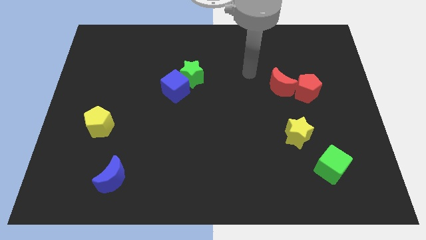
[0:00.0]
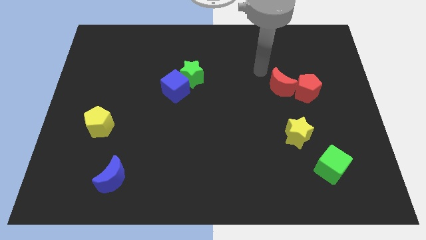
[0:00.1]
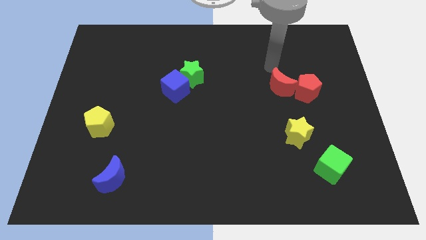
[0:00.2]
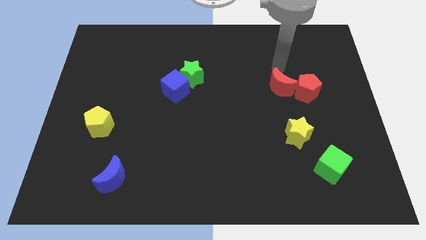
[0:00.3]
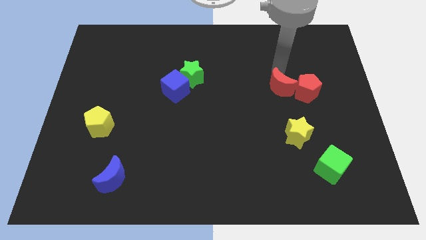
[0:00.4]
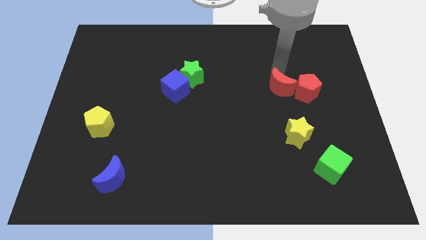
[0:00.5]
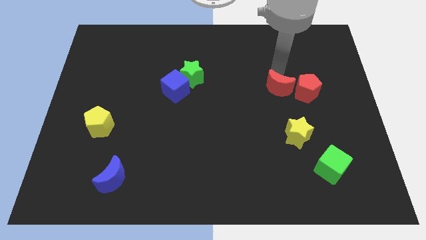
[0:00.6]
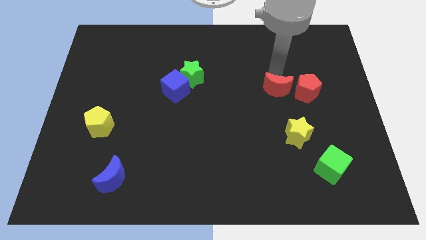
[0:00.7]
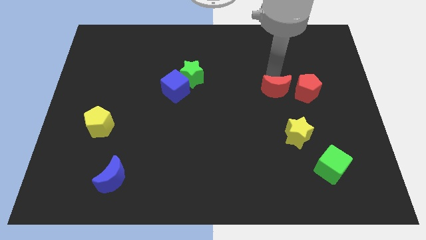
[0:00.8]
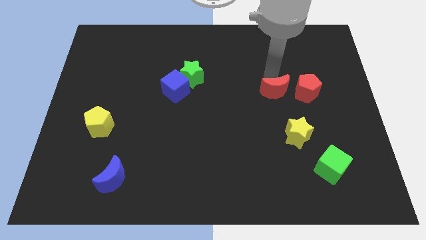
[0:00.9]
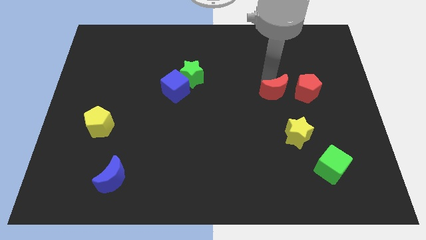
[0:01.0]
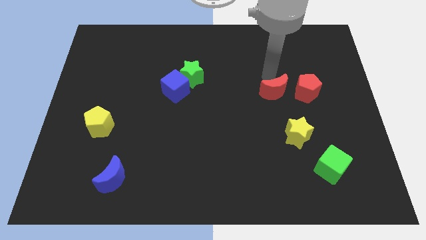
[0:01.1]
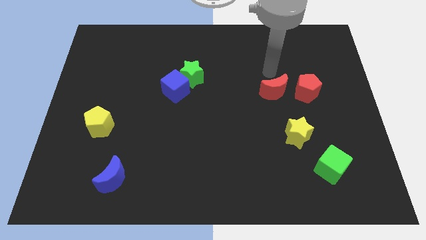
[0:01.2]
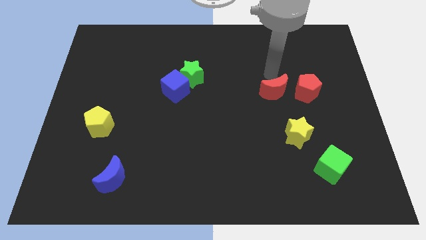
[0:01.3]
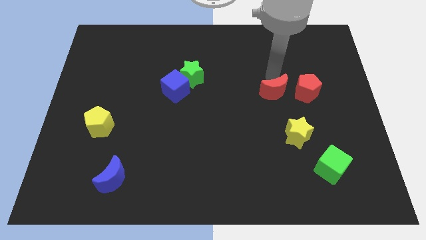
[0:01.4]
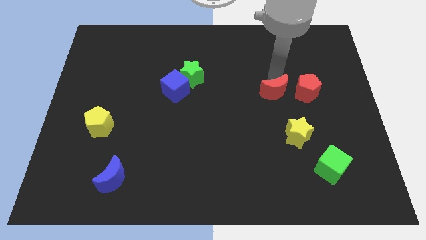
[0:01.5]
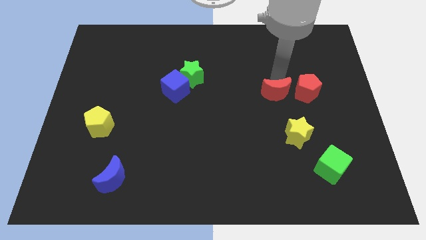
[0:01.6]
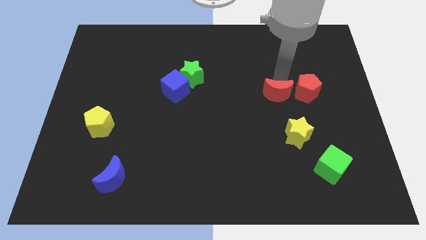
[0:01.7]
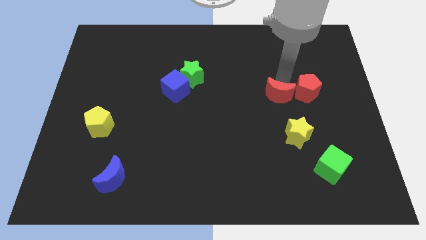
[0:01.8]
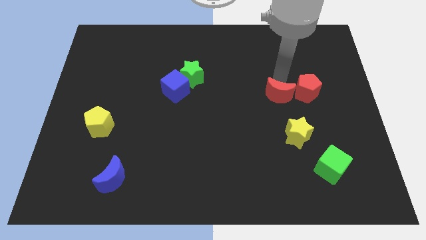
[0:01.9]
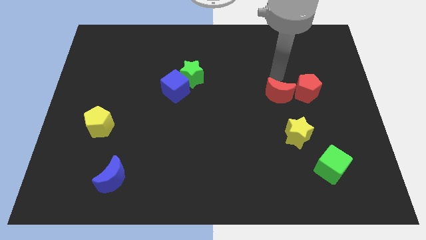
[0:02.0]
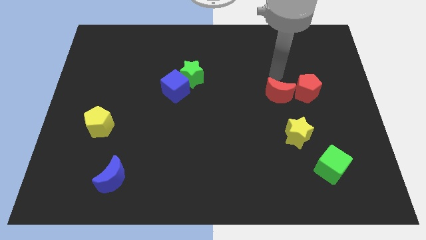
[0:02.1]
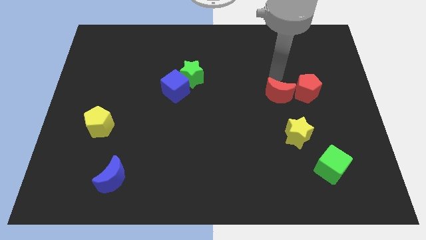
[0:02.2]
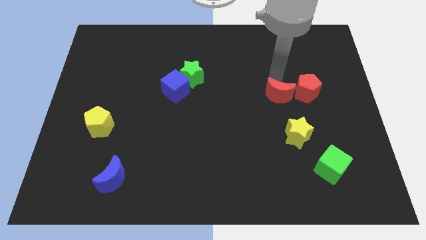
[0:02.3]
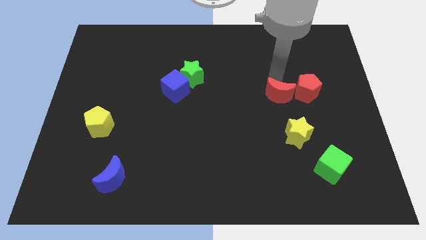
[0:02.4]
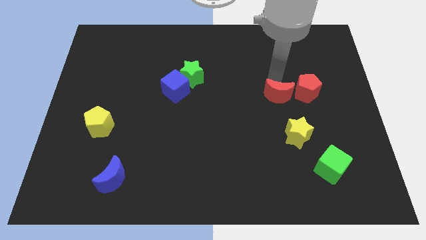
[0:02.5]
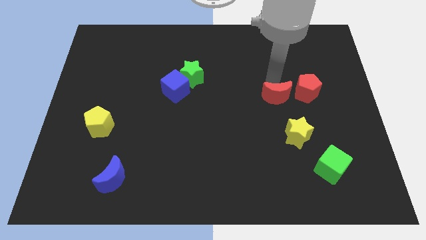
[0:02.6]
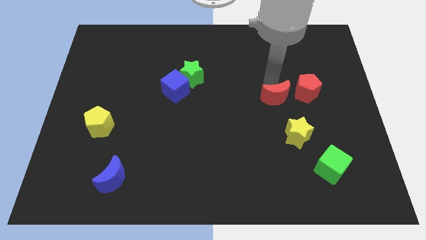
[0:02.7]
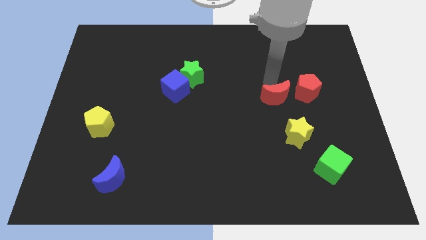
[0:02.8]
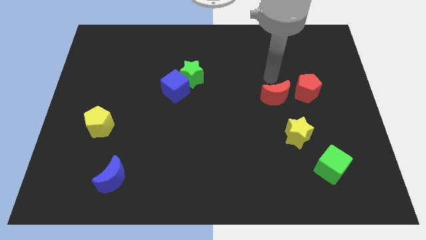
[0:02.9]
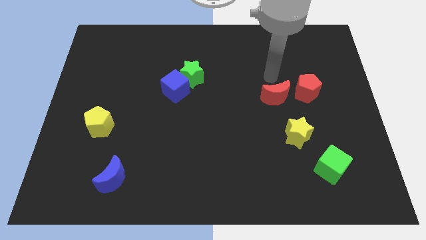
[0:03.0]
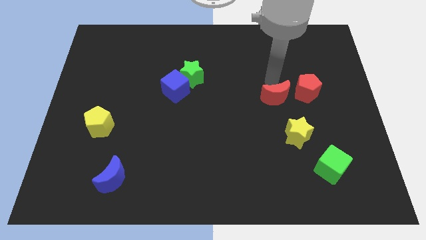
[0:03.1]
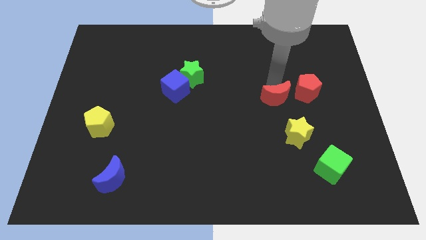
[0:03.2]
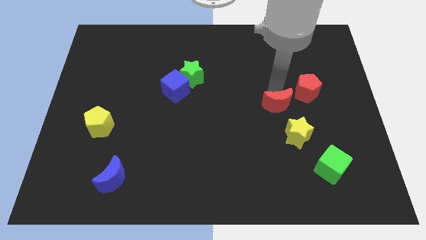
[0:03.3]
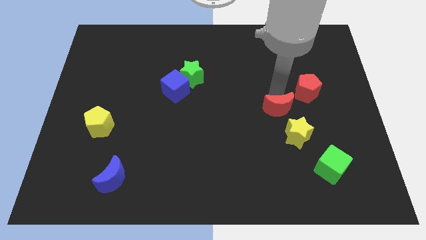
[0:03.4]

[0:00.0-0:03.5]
slightly push the red moon down

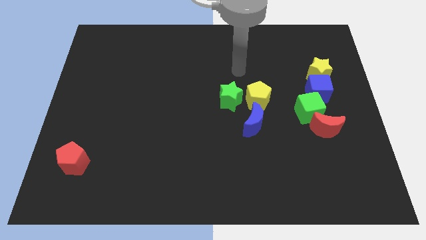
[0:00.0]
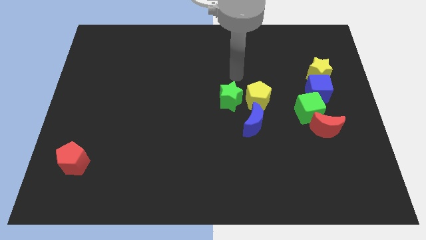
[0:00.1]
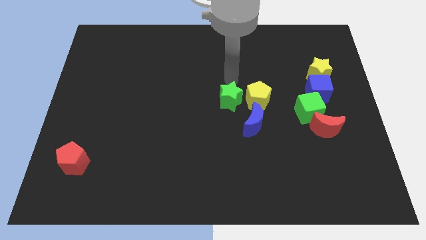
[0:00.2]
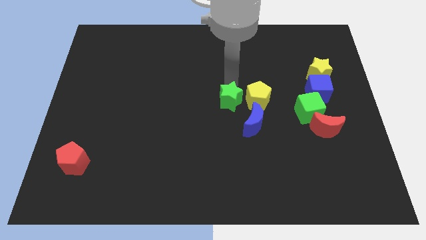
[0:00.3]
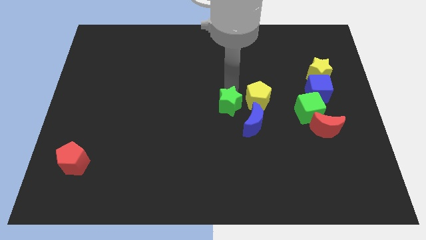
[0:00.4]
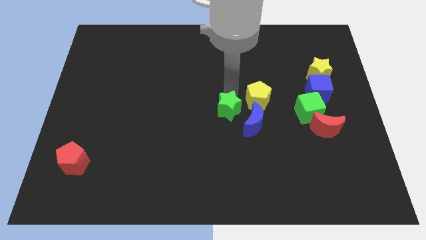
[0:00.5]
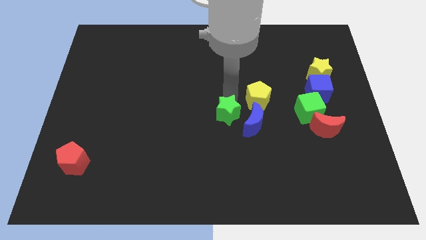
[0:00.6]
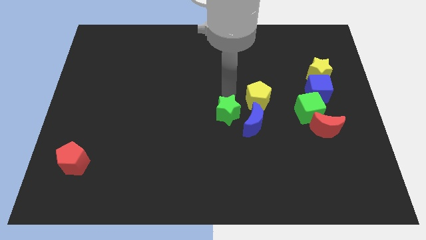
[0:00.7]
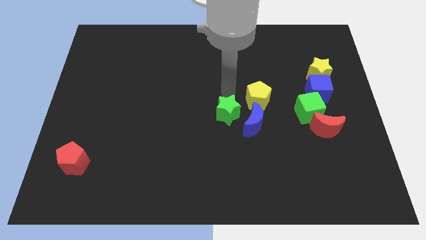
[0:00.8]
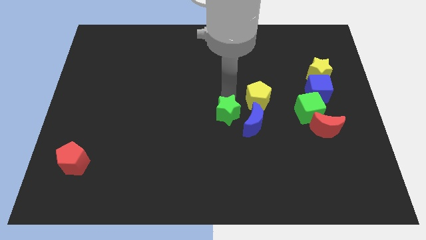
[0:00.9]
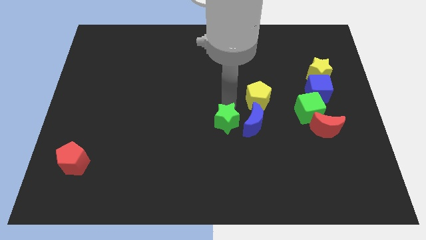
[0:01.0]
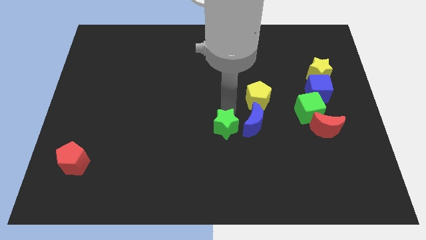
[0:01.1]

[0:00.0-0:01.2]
push the green star a little bit down

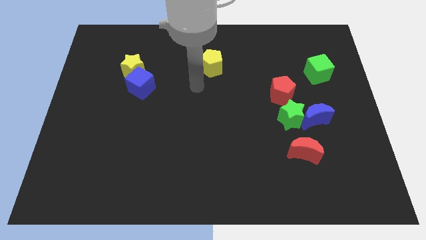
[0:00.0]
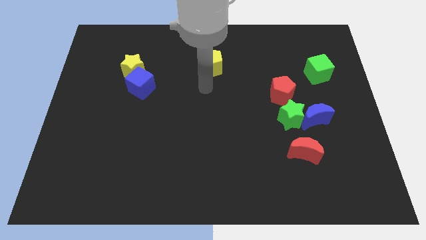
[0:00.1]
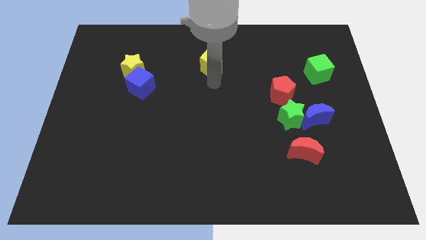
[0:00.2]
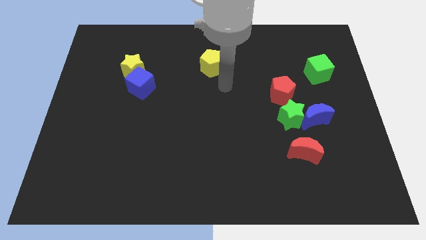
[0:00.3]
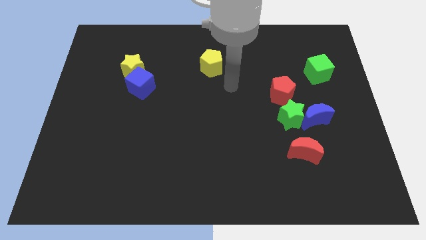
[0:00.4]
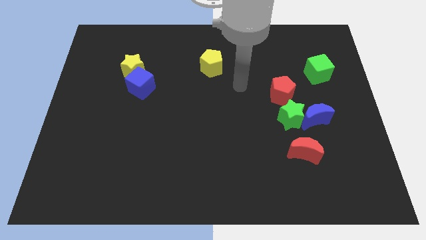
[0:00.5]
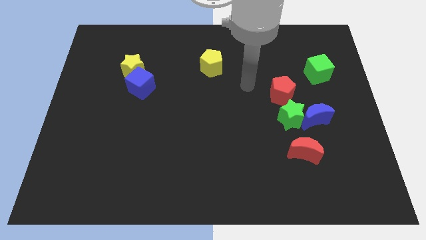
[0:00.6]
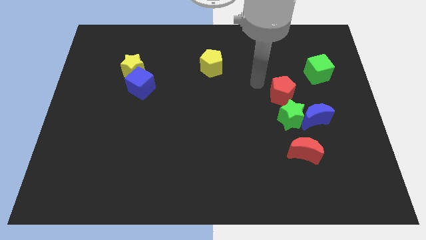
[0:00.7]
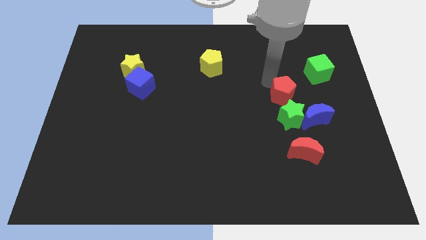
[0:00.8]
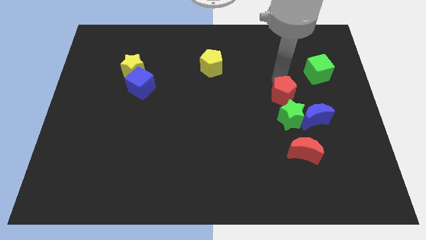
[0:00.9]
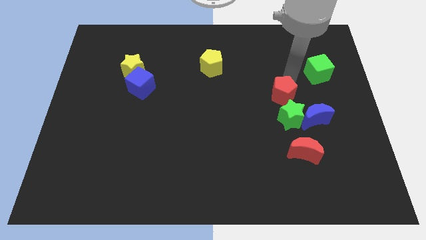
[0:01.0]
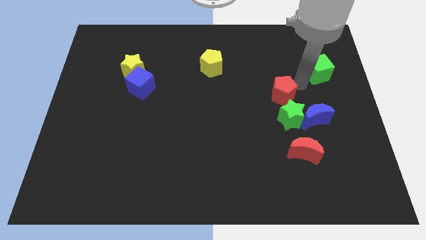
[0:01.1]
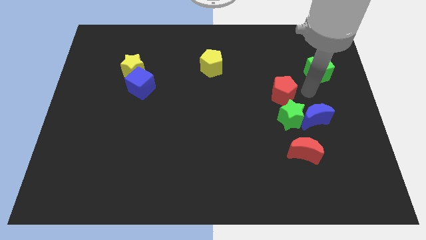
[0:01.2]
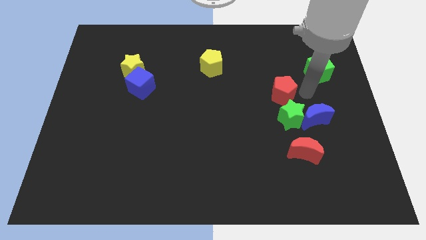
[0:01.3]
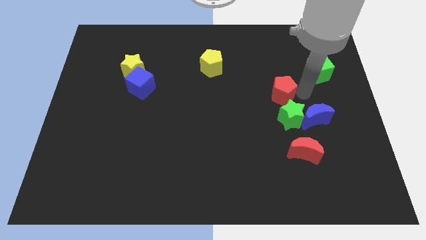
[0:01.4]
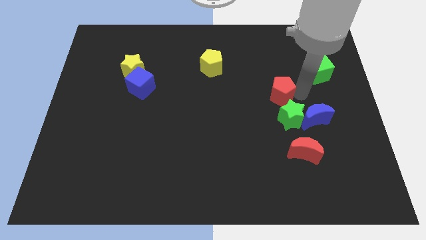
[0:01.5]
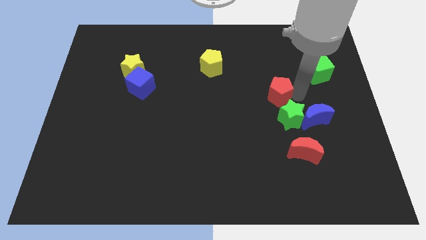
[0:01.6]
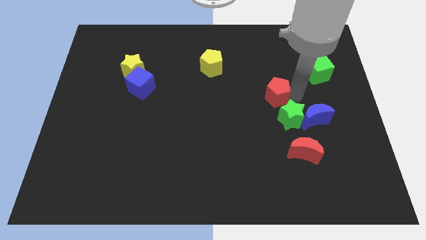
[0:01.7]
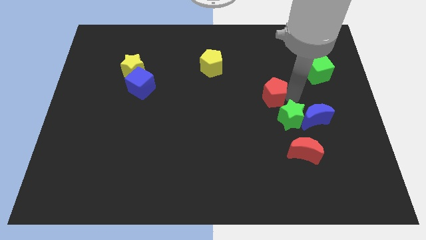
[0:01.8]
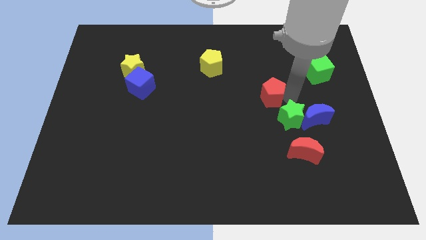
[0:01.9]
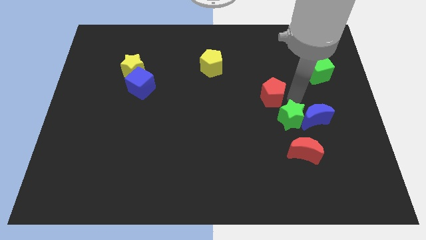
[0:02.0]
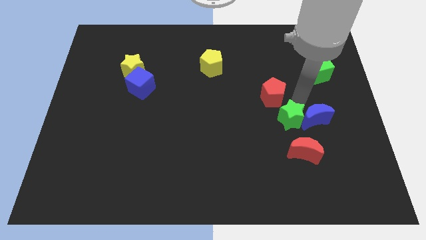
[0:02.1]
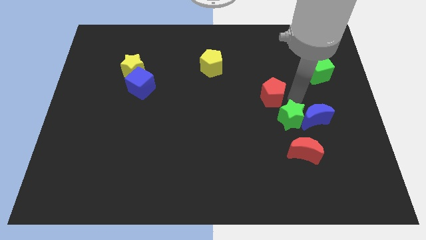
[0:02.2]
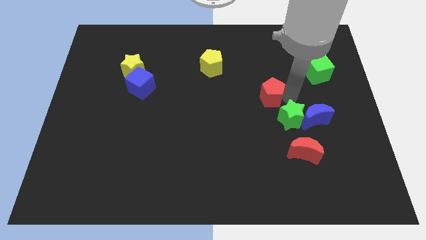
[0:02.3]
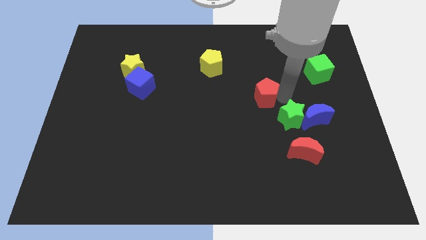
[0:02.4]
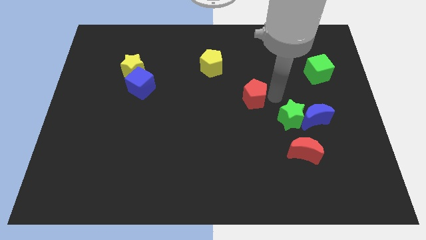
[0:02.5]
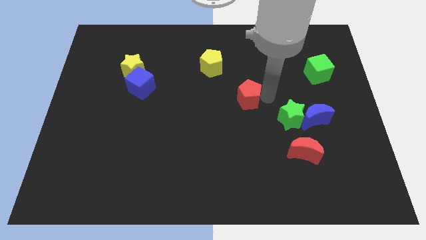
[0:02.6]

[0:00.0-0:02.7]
slightly move the red pentagon to the left

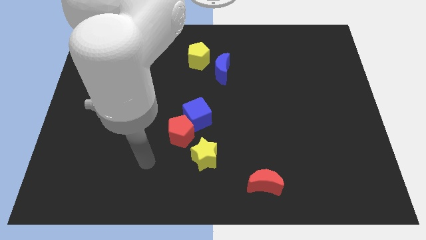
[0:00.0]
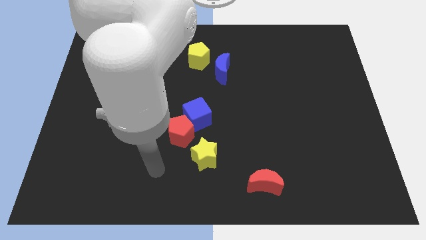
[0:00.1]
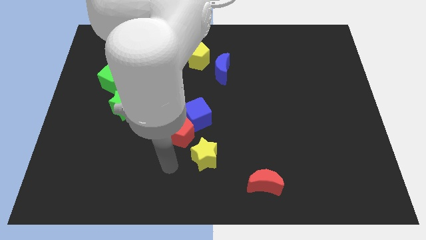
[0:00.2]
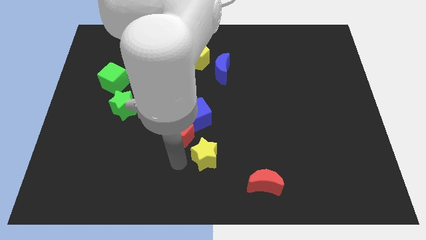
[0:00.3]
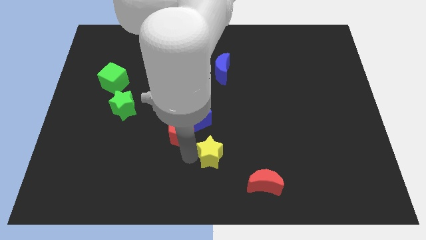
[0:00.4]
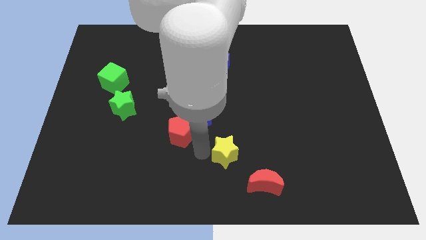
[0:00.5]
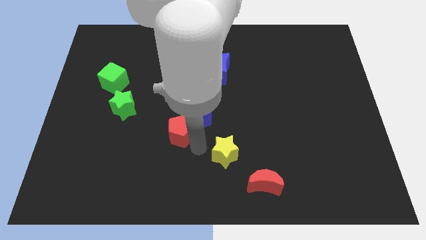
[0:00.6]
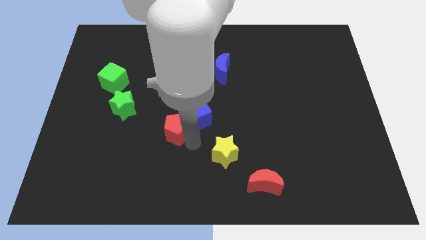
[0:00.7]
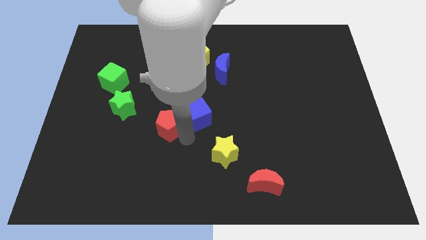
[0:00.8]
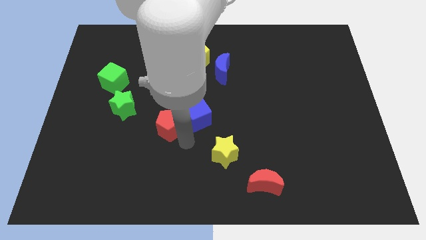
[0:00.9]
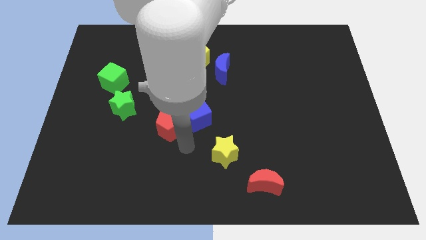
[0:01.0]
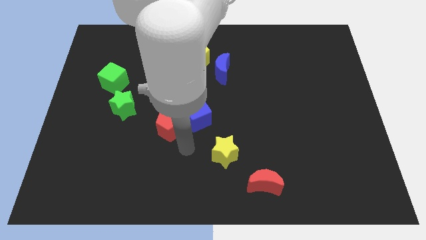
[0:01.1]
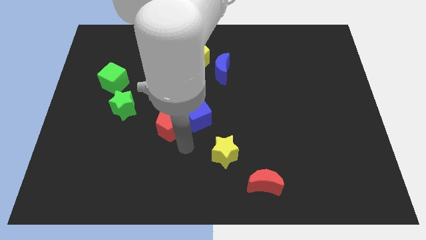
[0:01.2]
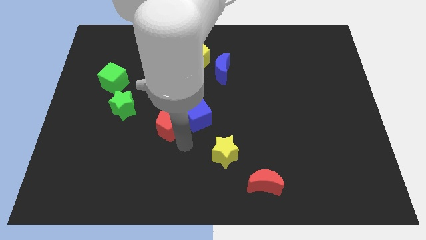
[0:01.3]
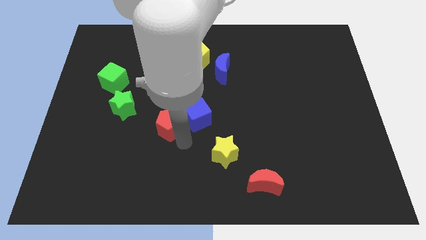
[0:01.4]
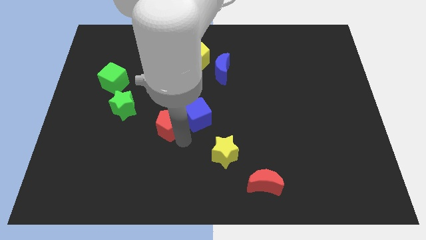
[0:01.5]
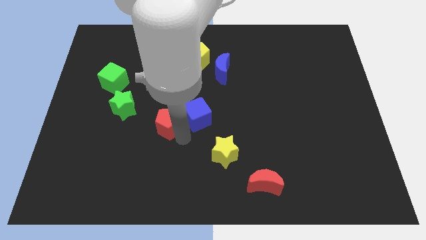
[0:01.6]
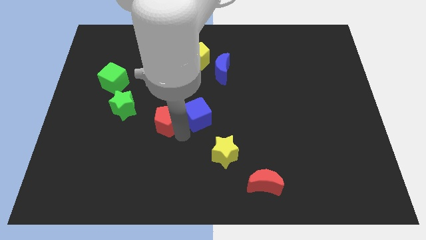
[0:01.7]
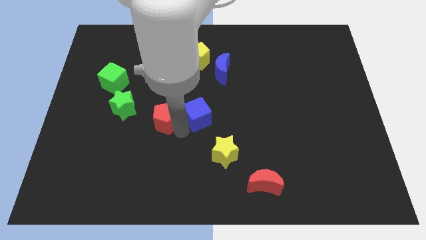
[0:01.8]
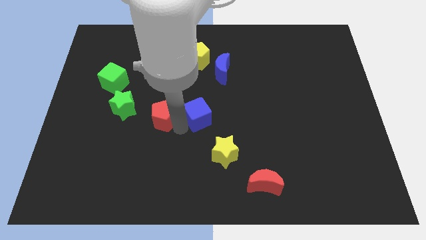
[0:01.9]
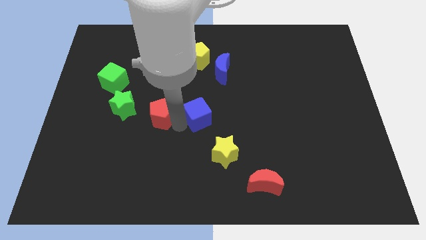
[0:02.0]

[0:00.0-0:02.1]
move the red pentagon upwards and then to the left a little
